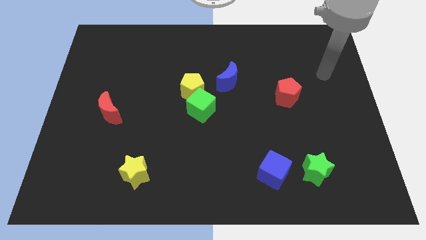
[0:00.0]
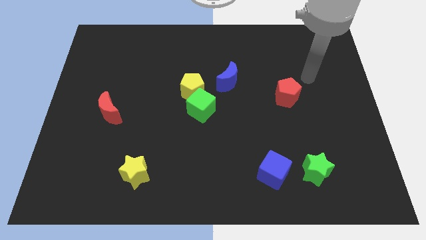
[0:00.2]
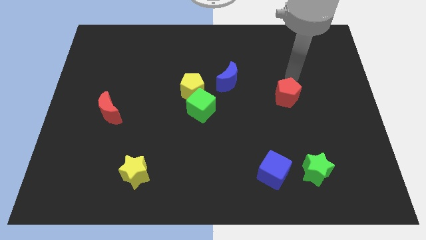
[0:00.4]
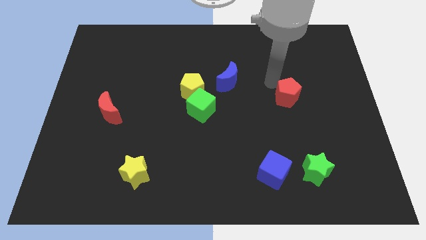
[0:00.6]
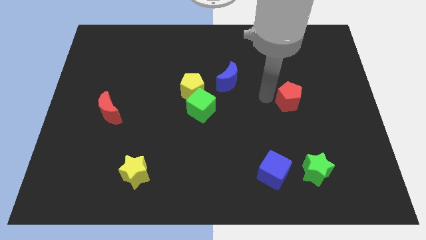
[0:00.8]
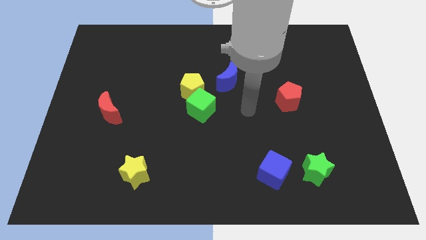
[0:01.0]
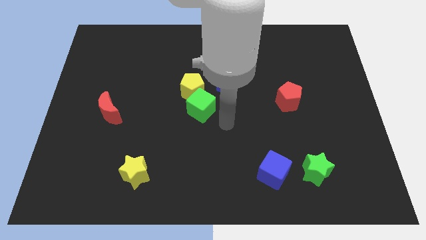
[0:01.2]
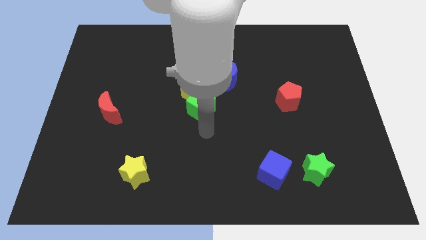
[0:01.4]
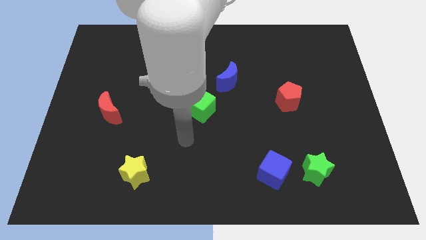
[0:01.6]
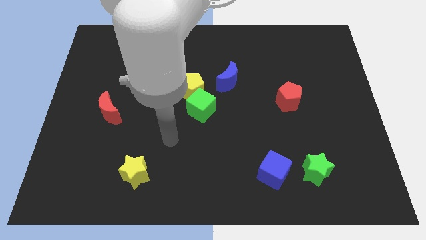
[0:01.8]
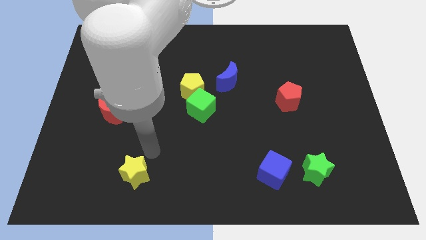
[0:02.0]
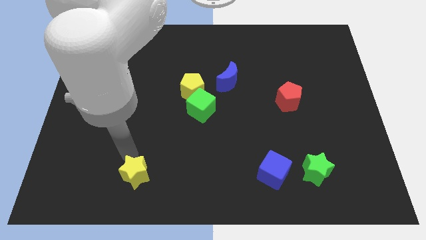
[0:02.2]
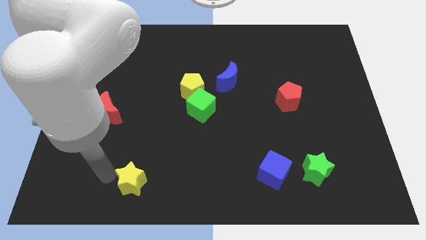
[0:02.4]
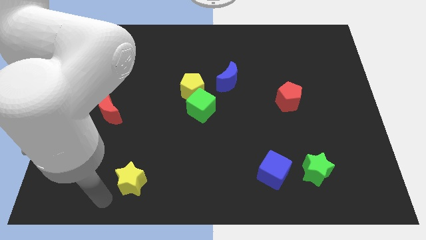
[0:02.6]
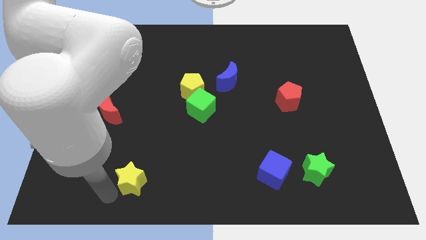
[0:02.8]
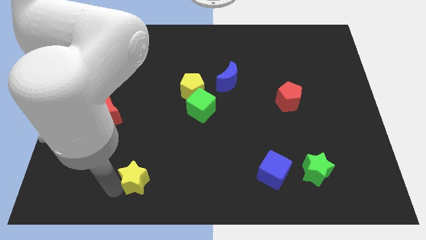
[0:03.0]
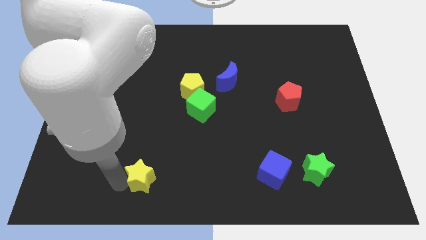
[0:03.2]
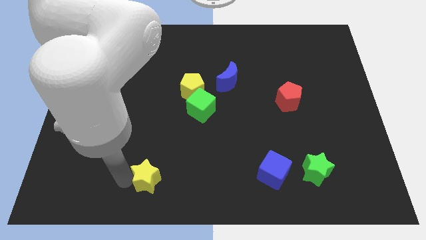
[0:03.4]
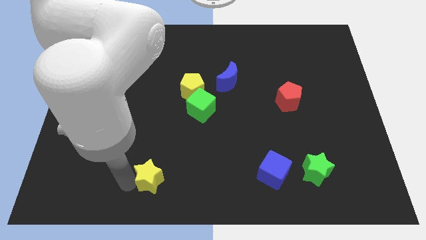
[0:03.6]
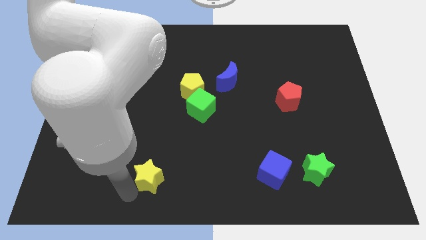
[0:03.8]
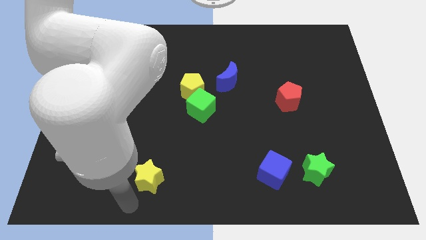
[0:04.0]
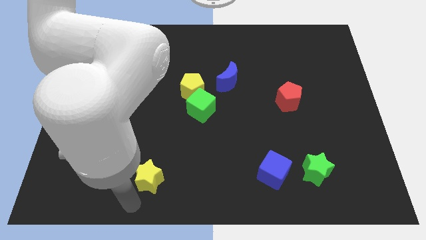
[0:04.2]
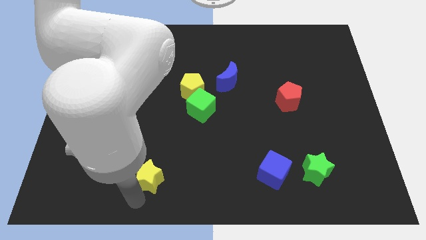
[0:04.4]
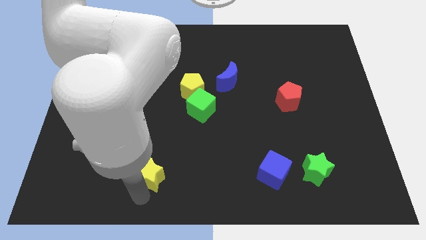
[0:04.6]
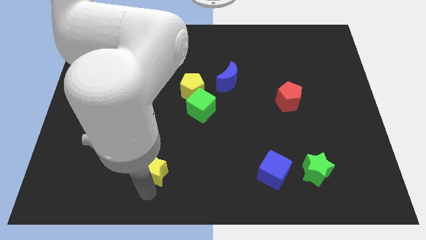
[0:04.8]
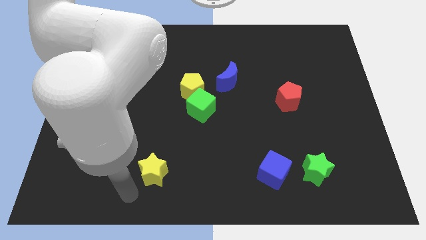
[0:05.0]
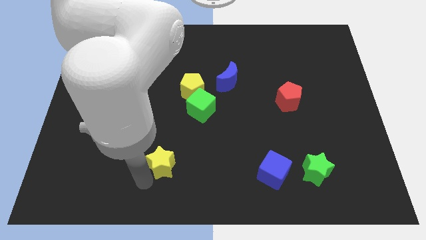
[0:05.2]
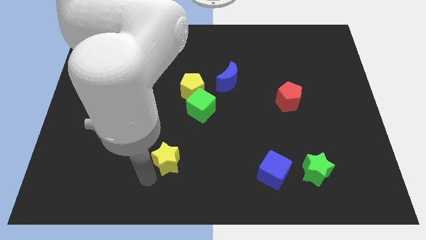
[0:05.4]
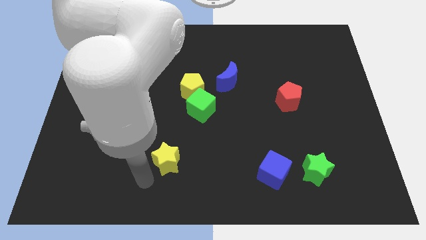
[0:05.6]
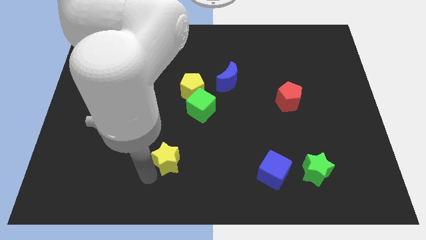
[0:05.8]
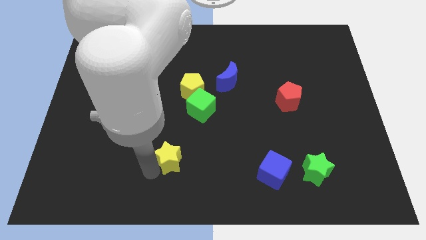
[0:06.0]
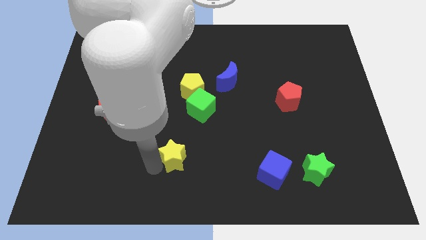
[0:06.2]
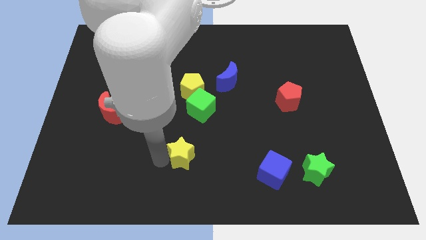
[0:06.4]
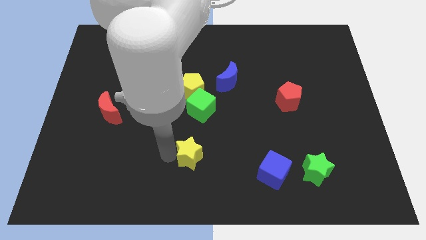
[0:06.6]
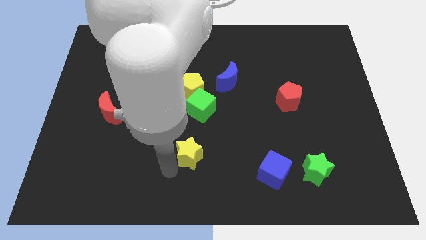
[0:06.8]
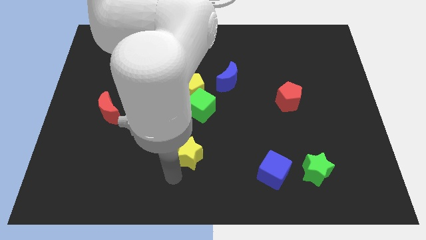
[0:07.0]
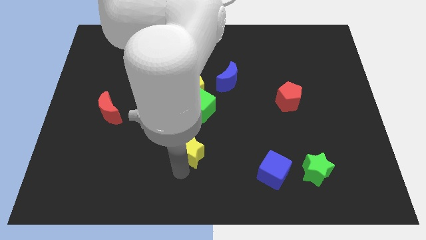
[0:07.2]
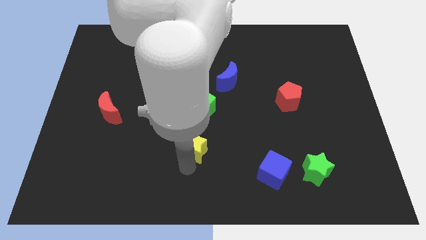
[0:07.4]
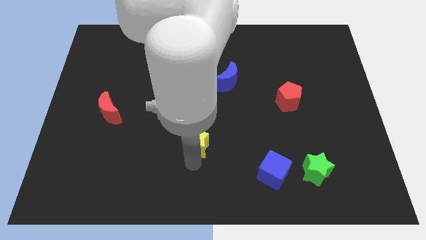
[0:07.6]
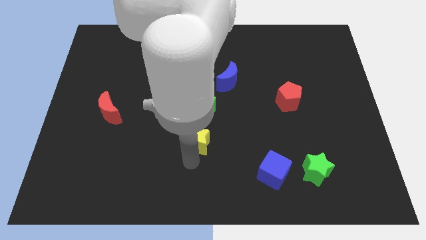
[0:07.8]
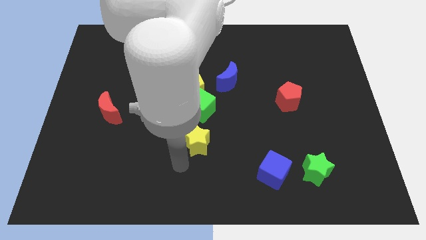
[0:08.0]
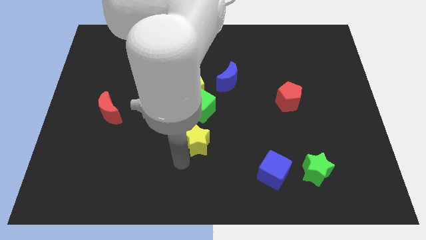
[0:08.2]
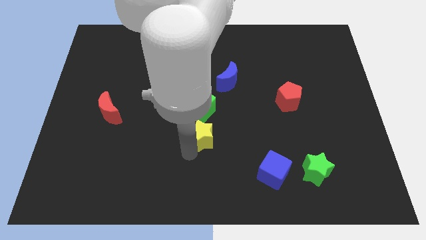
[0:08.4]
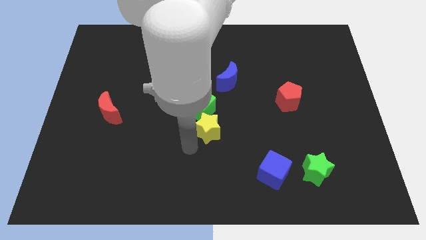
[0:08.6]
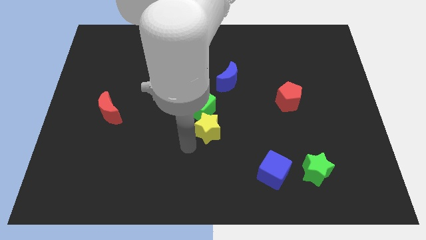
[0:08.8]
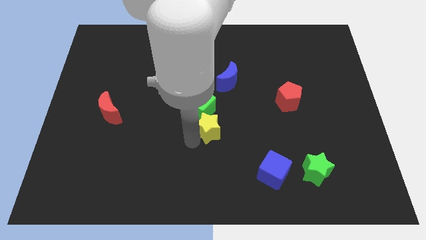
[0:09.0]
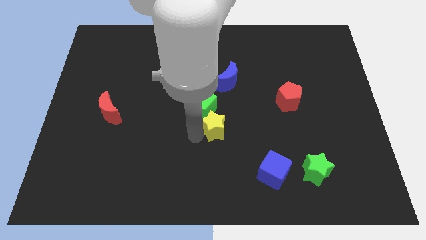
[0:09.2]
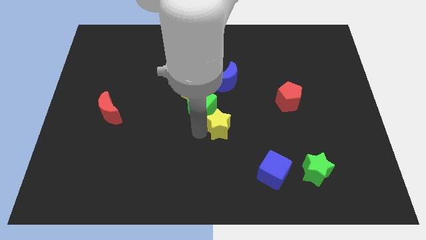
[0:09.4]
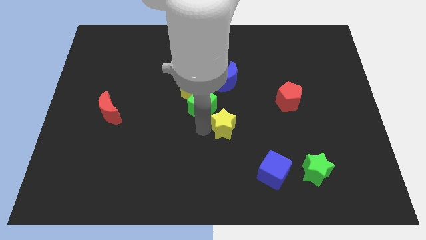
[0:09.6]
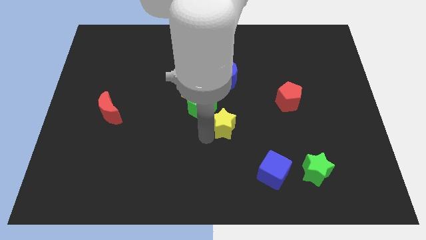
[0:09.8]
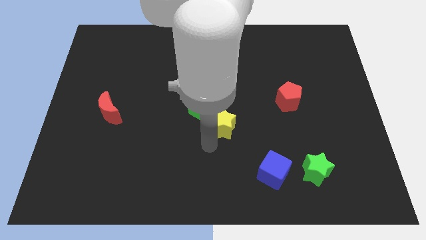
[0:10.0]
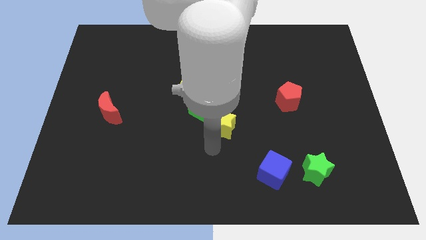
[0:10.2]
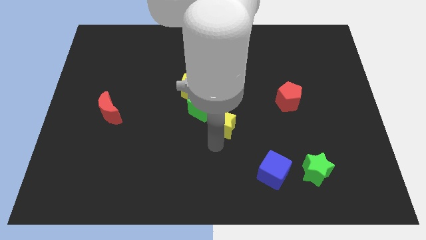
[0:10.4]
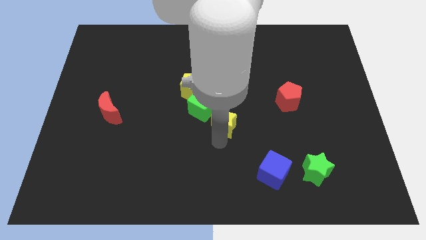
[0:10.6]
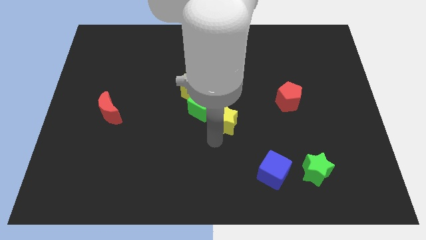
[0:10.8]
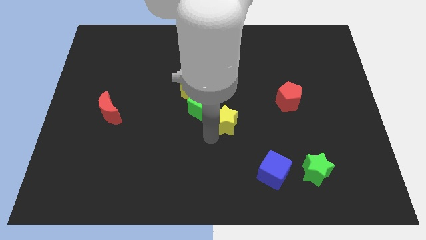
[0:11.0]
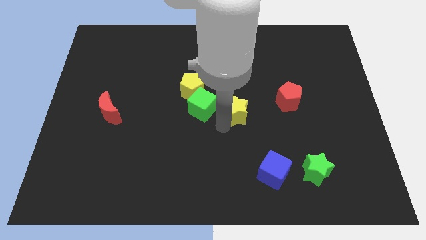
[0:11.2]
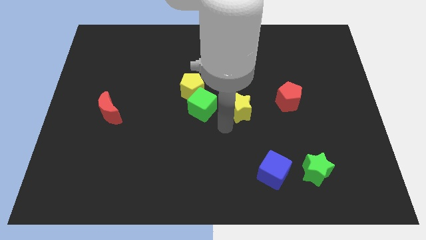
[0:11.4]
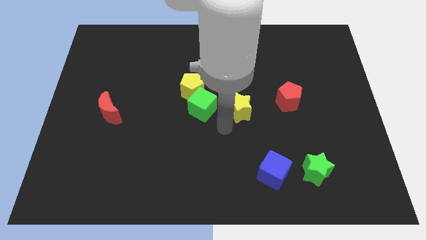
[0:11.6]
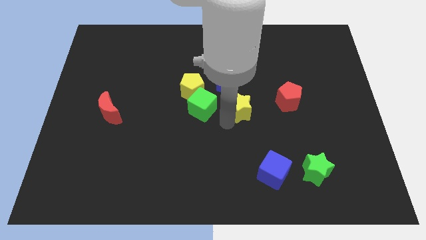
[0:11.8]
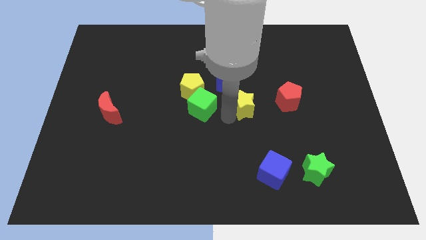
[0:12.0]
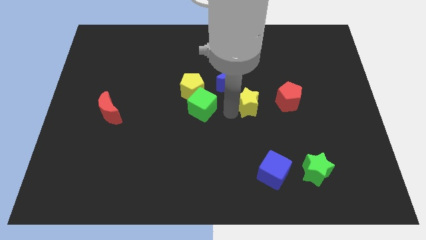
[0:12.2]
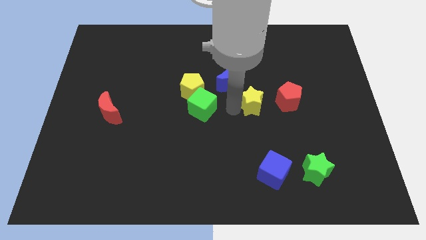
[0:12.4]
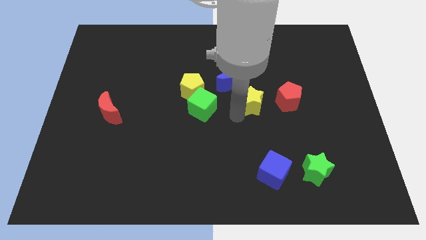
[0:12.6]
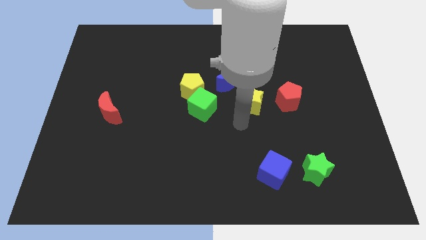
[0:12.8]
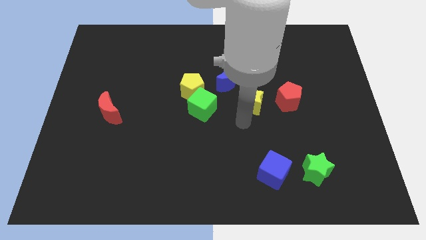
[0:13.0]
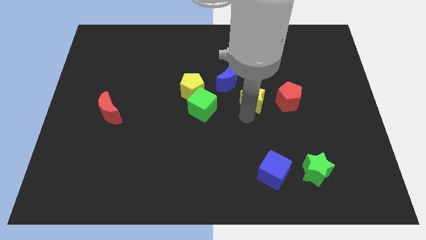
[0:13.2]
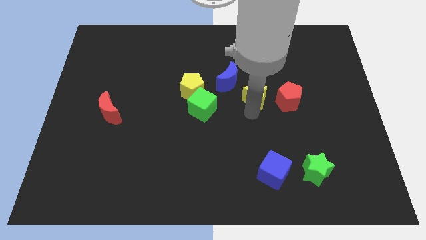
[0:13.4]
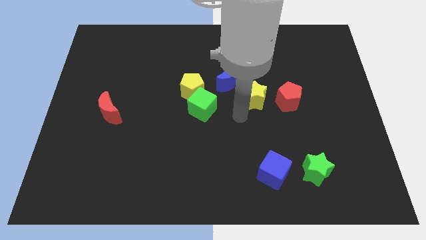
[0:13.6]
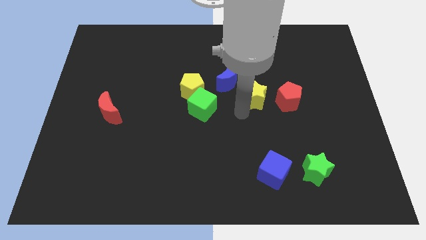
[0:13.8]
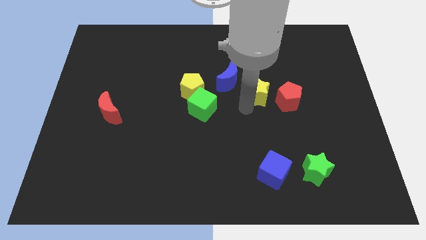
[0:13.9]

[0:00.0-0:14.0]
move the yellow star right of the blue moon

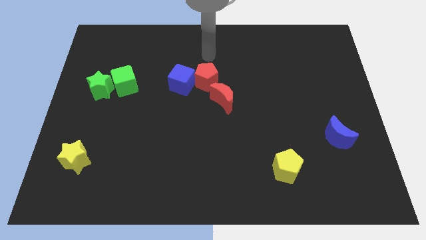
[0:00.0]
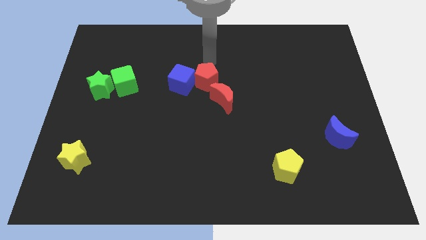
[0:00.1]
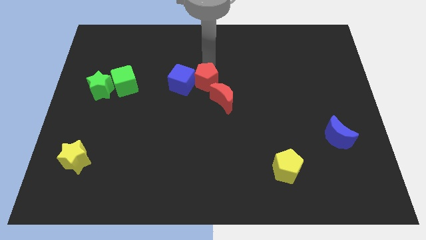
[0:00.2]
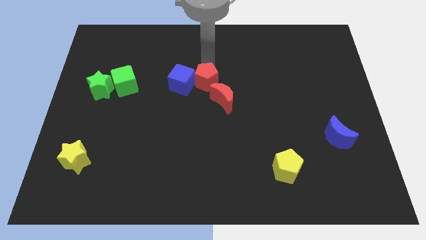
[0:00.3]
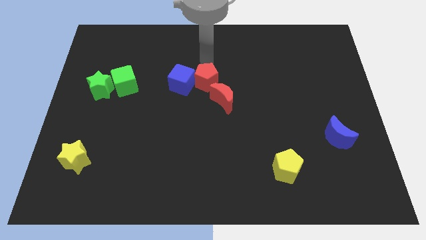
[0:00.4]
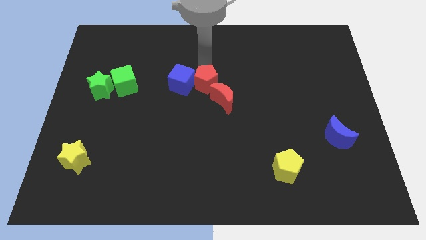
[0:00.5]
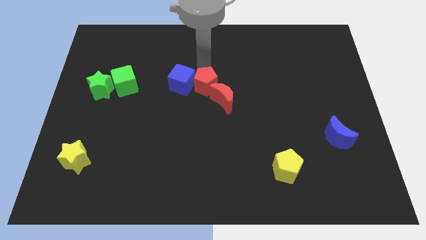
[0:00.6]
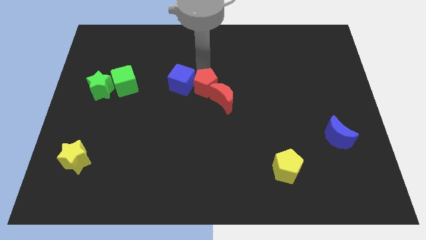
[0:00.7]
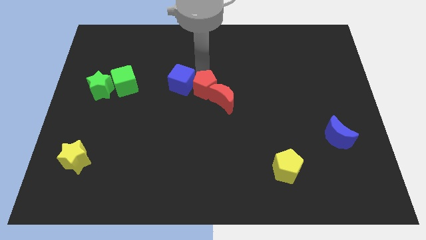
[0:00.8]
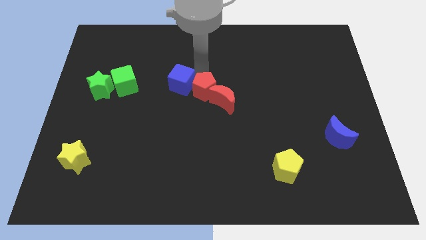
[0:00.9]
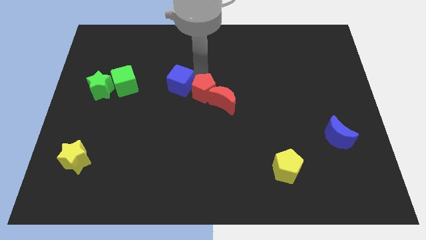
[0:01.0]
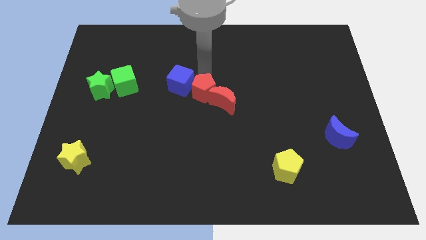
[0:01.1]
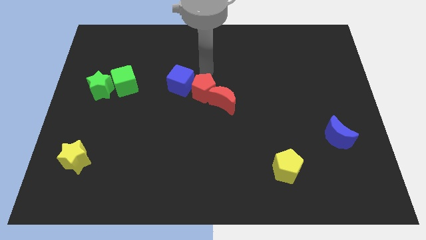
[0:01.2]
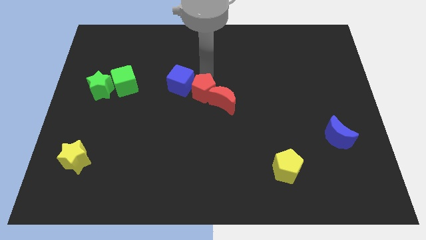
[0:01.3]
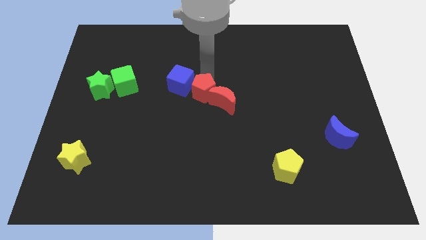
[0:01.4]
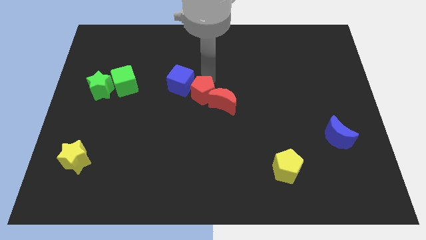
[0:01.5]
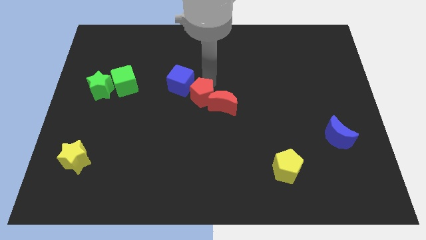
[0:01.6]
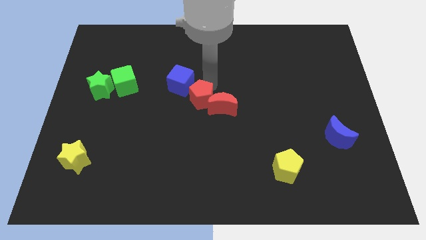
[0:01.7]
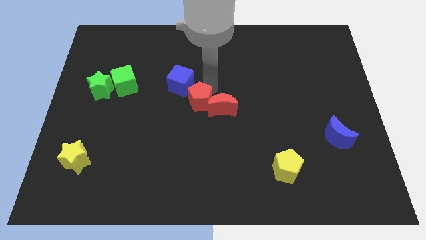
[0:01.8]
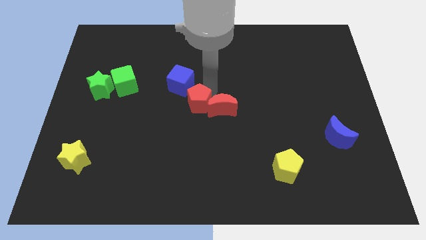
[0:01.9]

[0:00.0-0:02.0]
move the red pentagon to the bottom left side of the red moon
